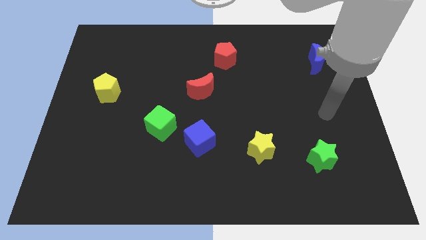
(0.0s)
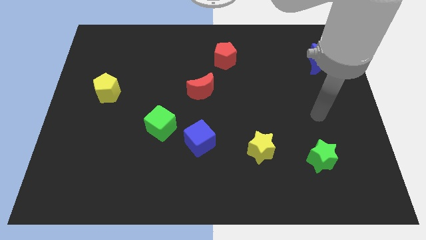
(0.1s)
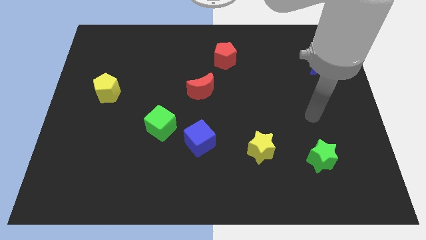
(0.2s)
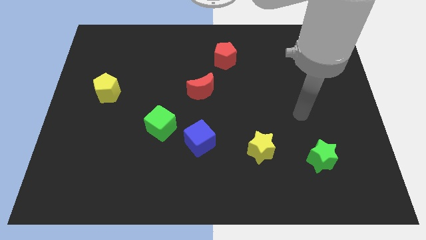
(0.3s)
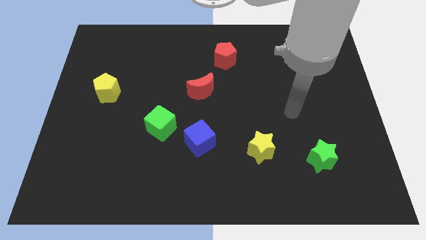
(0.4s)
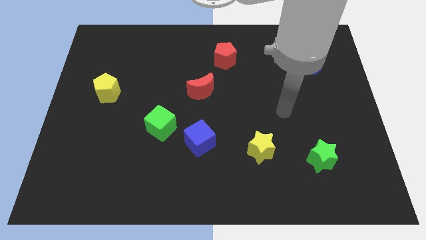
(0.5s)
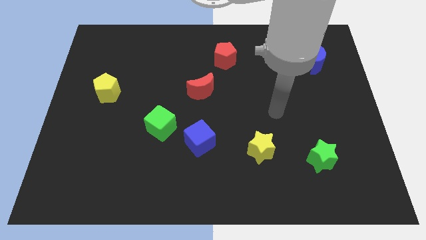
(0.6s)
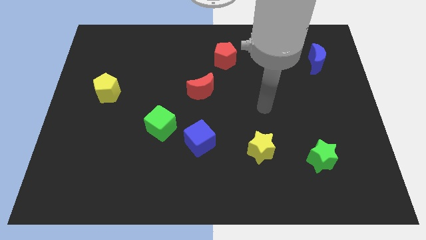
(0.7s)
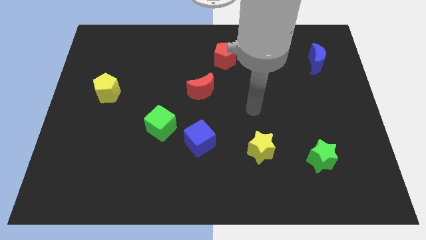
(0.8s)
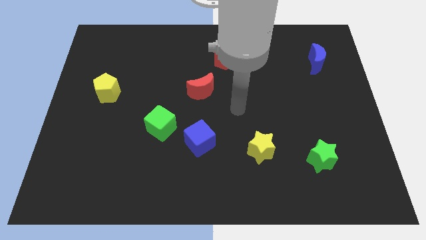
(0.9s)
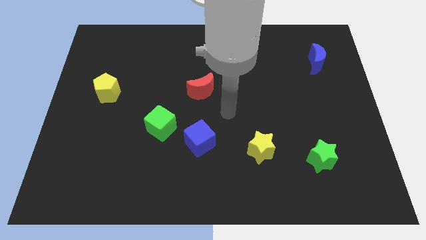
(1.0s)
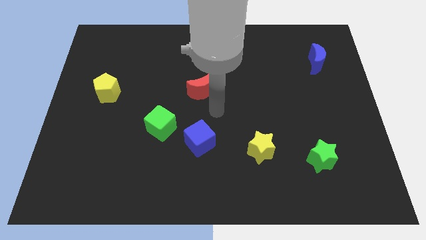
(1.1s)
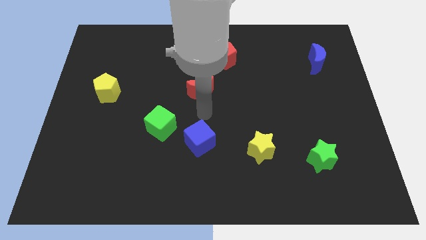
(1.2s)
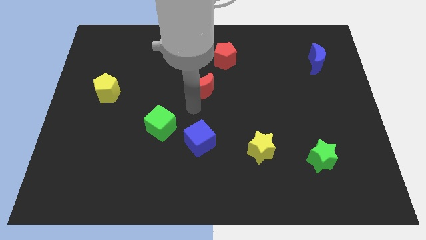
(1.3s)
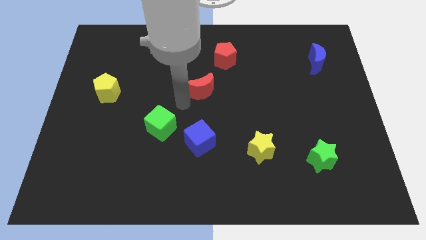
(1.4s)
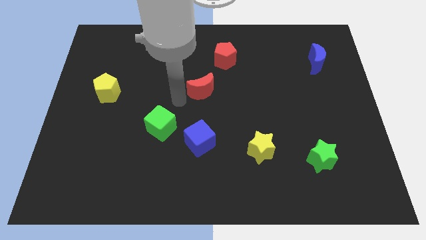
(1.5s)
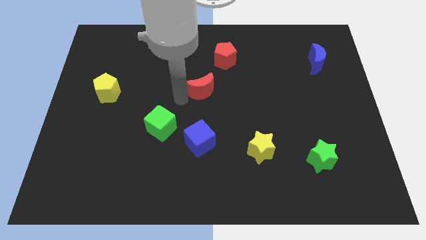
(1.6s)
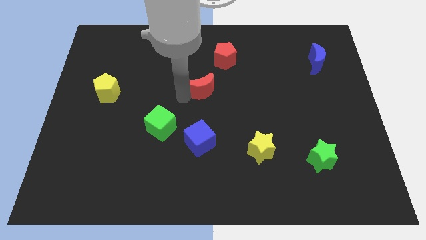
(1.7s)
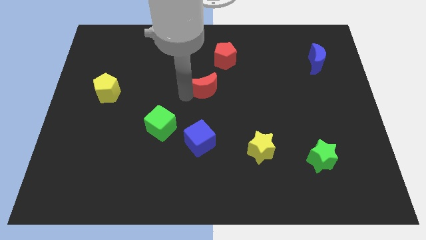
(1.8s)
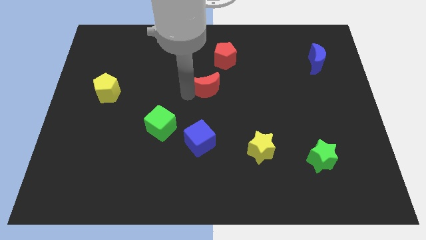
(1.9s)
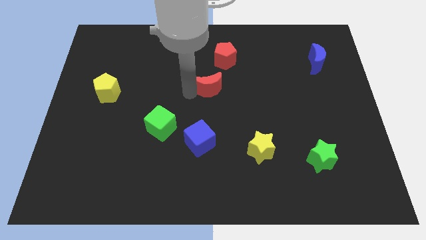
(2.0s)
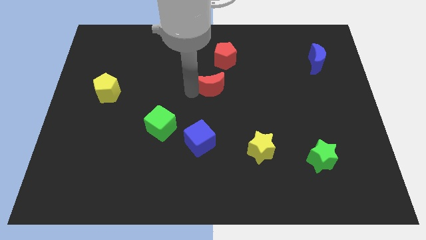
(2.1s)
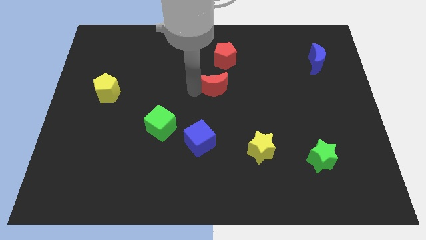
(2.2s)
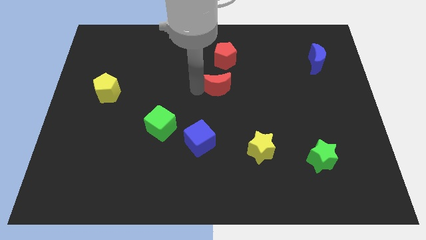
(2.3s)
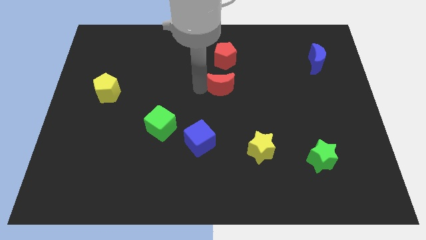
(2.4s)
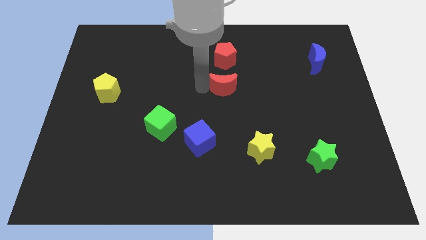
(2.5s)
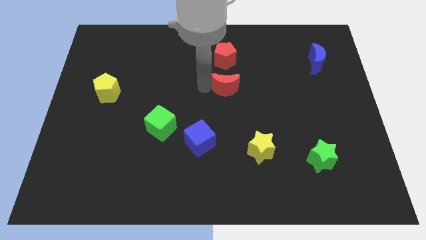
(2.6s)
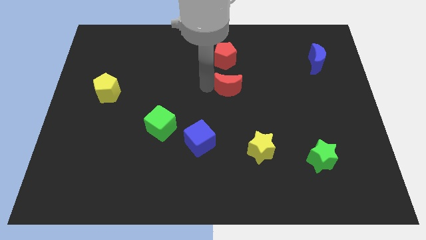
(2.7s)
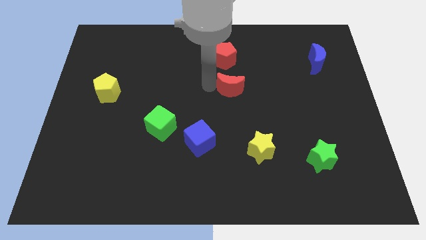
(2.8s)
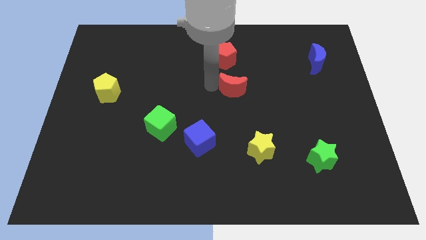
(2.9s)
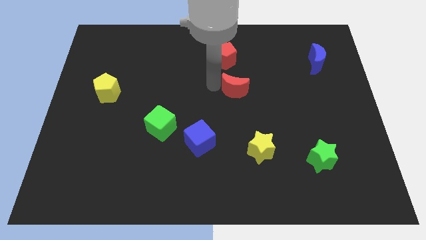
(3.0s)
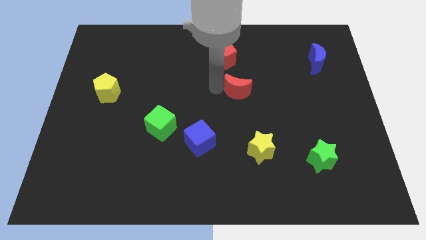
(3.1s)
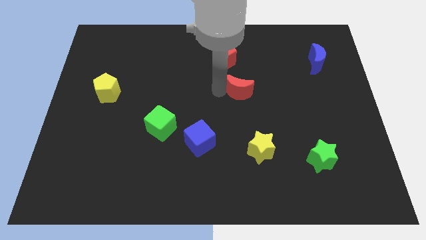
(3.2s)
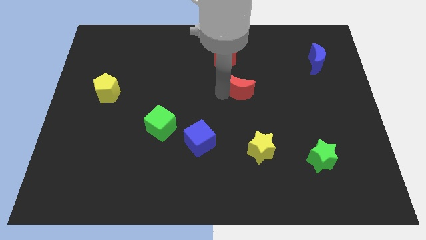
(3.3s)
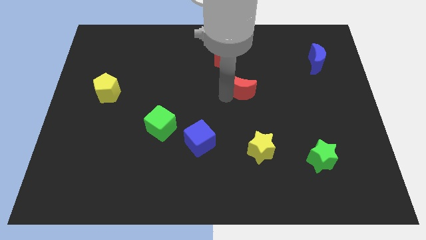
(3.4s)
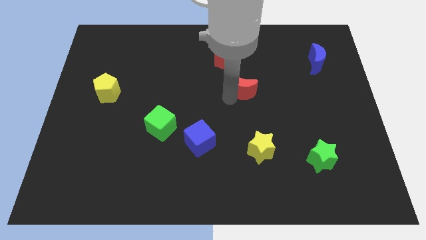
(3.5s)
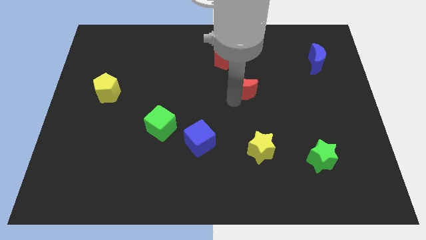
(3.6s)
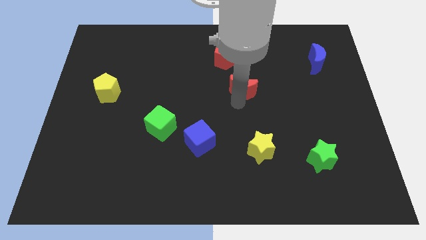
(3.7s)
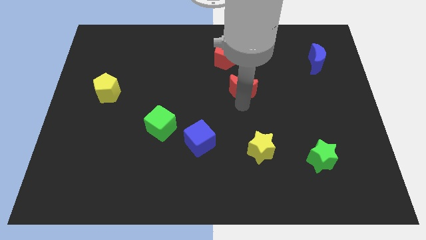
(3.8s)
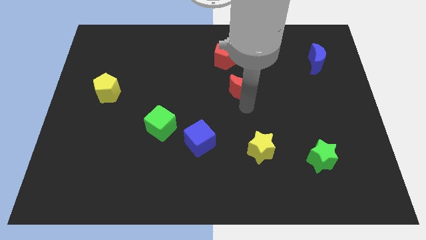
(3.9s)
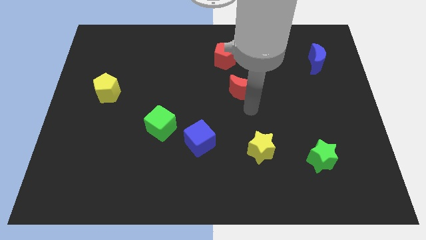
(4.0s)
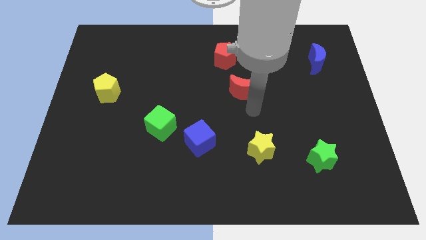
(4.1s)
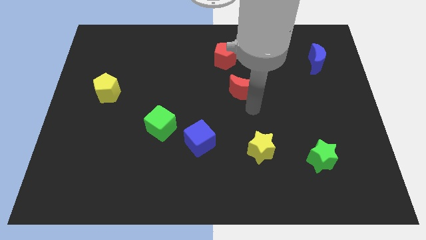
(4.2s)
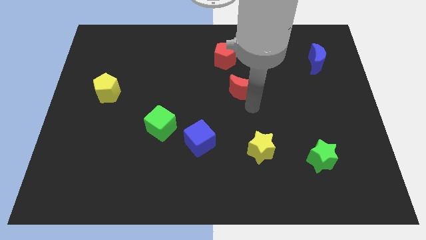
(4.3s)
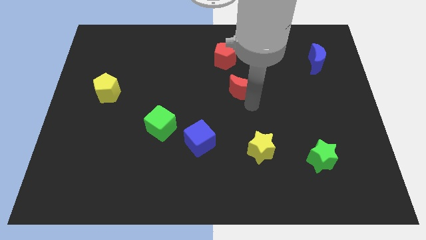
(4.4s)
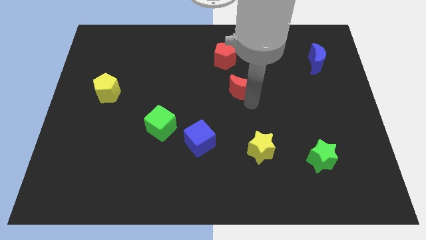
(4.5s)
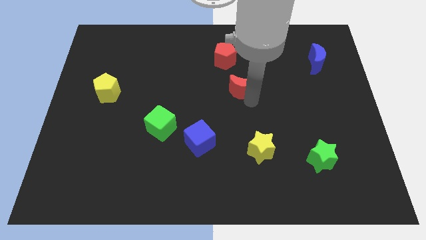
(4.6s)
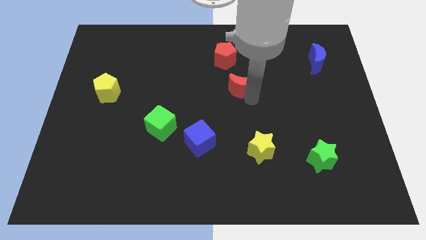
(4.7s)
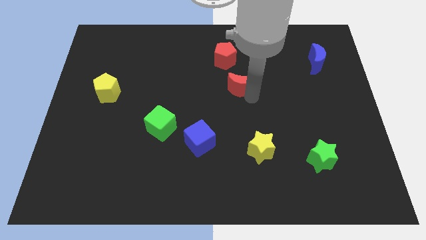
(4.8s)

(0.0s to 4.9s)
move the red moon to the bottom right side of the red pentagon

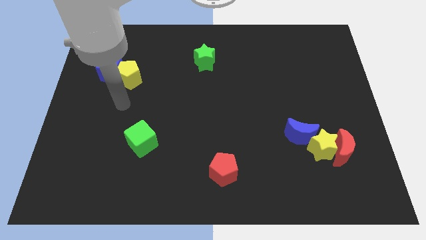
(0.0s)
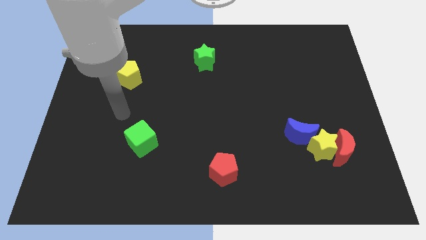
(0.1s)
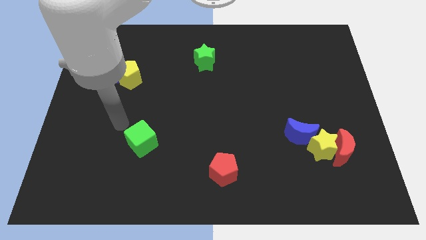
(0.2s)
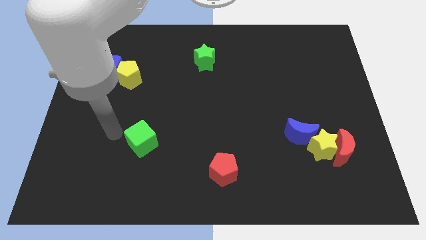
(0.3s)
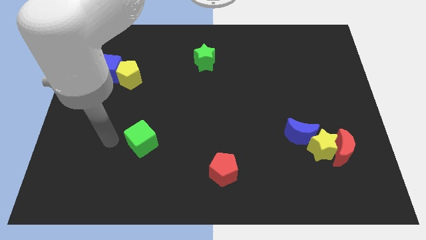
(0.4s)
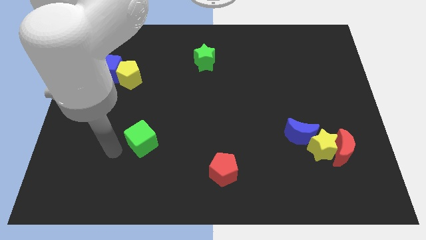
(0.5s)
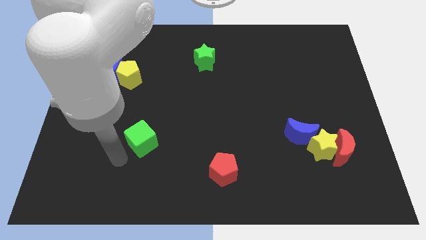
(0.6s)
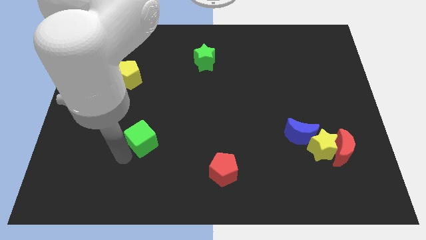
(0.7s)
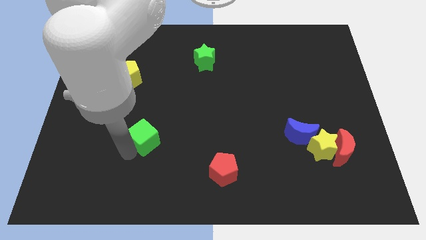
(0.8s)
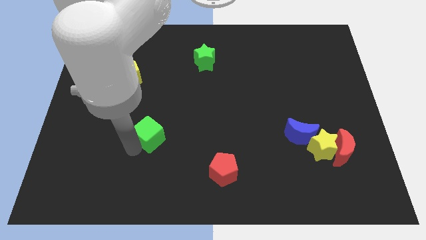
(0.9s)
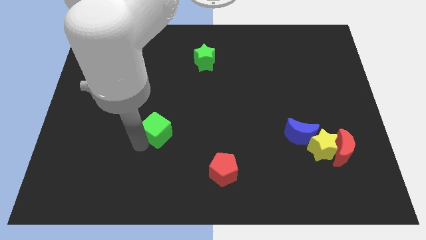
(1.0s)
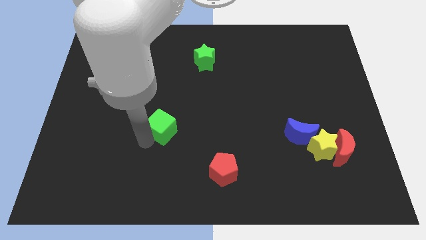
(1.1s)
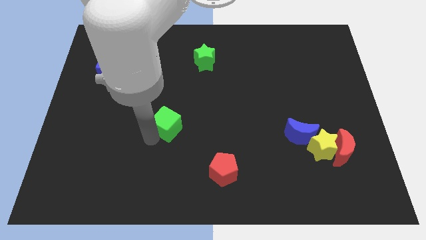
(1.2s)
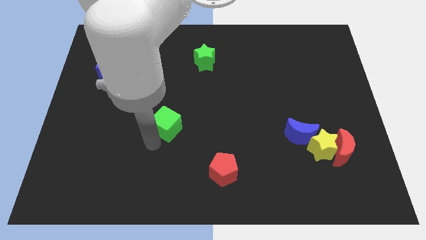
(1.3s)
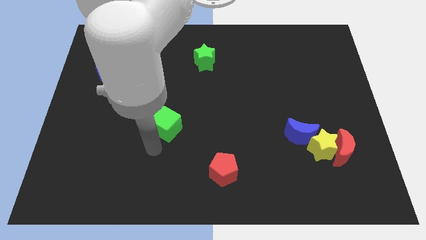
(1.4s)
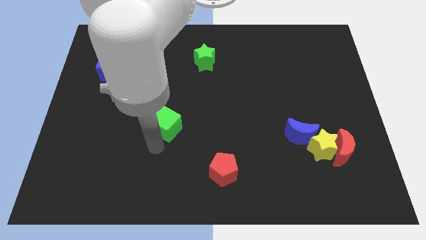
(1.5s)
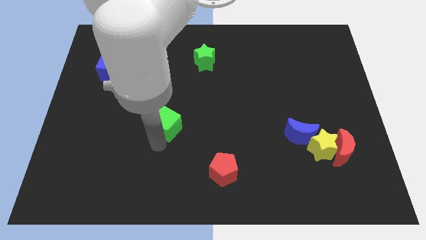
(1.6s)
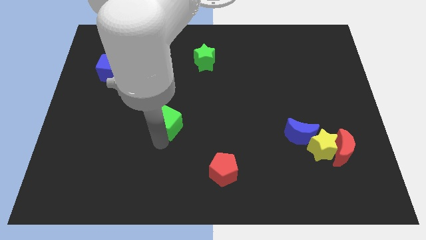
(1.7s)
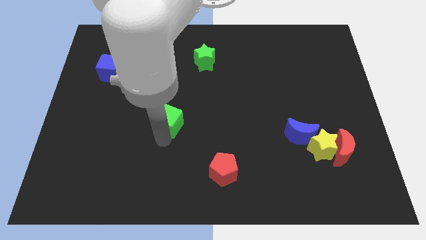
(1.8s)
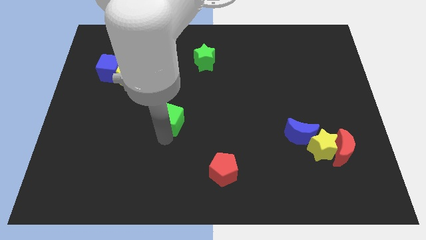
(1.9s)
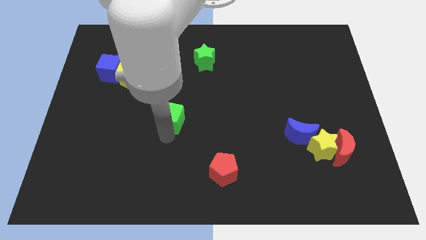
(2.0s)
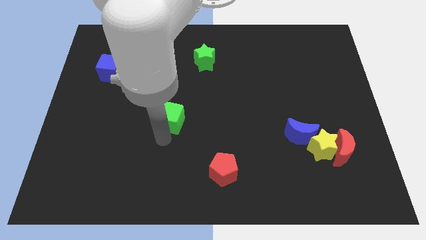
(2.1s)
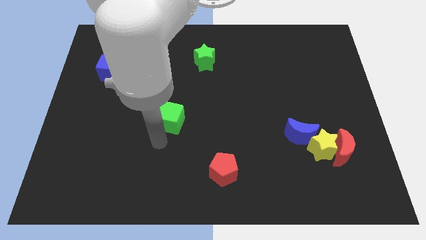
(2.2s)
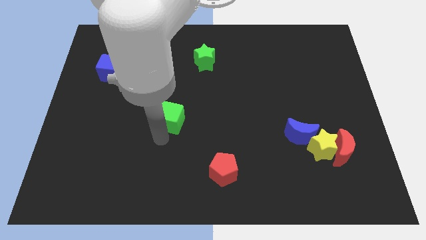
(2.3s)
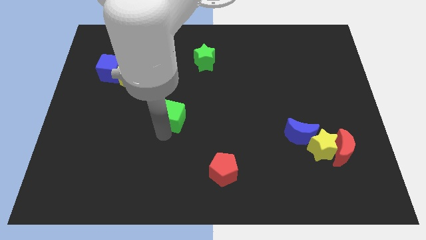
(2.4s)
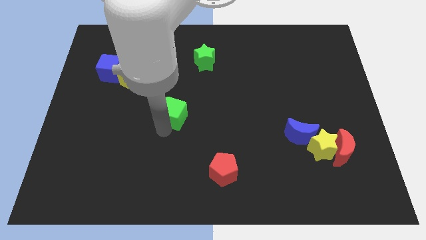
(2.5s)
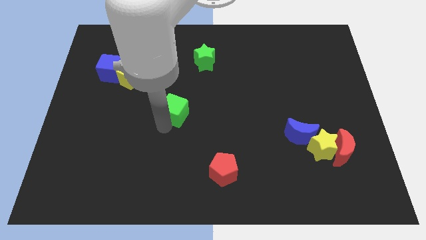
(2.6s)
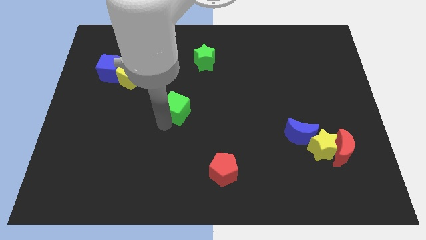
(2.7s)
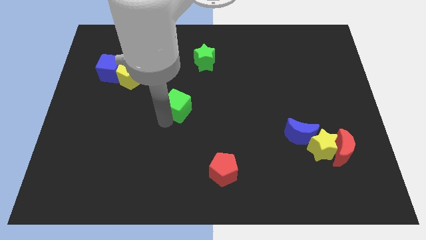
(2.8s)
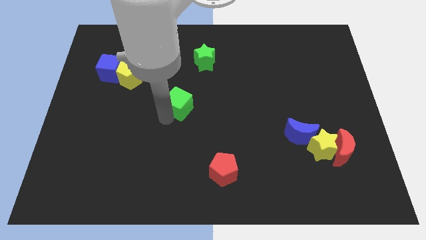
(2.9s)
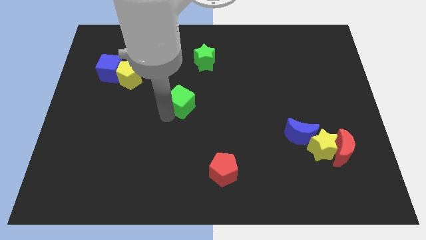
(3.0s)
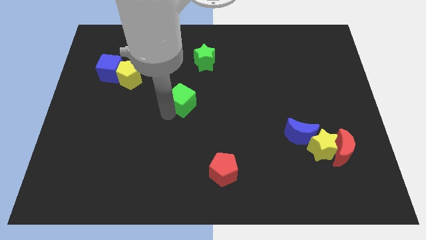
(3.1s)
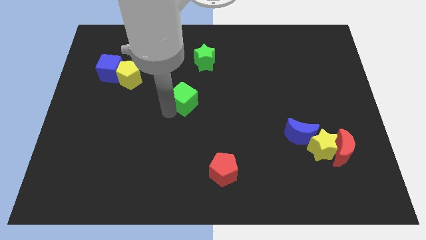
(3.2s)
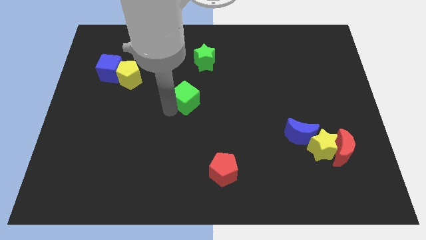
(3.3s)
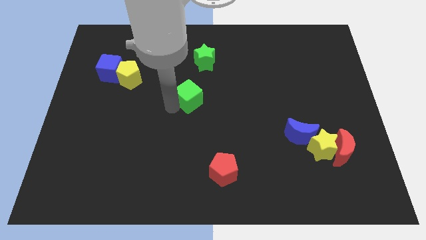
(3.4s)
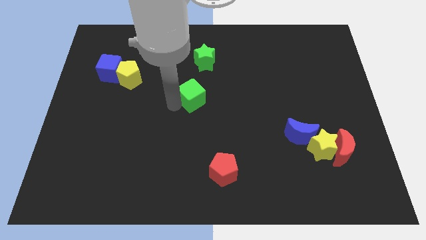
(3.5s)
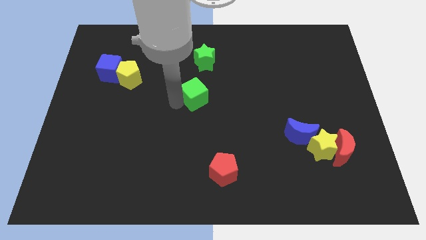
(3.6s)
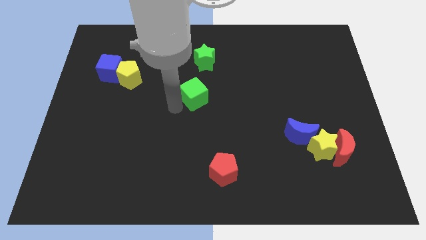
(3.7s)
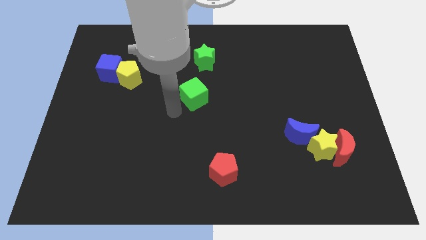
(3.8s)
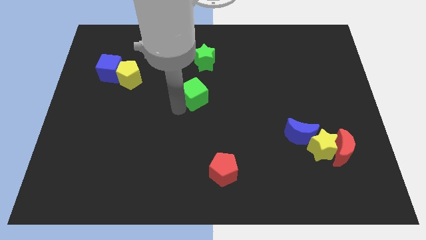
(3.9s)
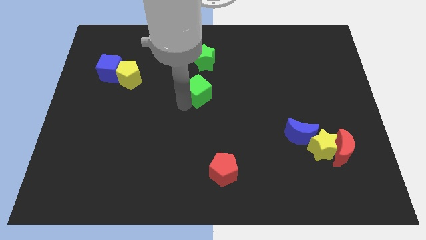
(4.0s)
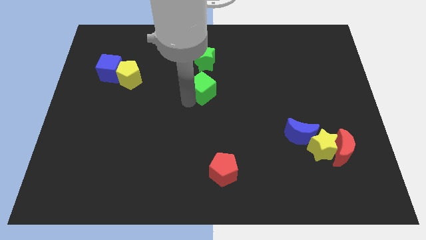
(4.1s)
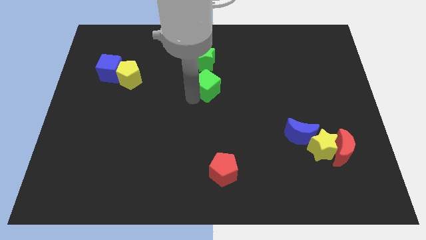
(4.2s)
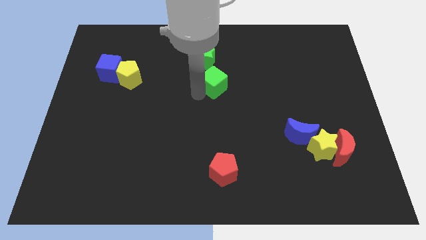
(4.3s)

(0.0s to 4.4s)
slide the green cube to the bottom right side of the green star
